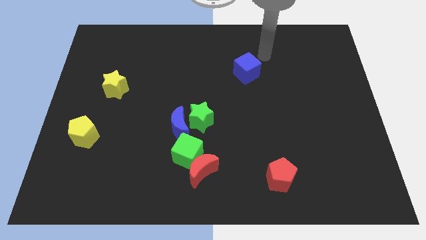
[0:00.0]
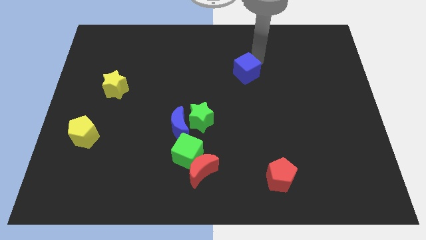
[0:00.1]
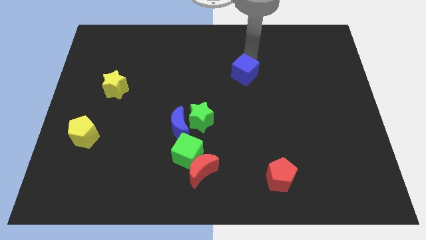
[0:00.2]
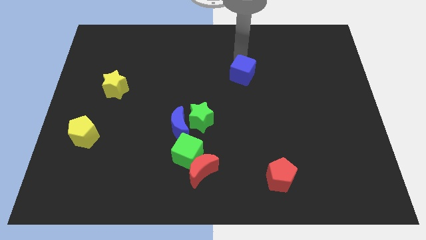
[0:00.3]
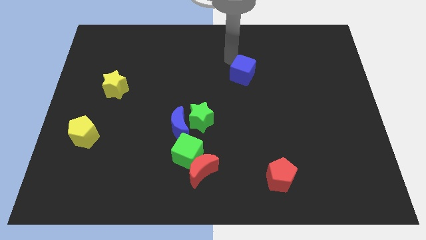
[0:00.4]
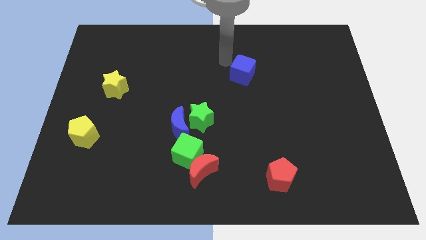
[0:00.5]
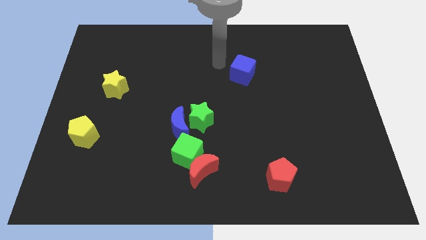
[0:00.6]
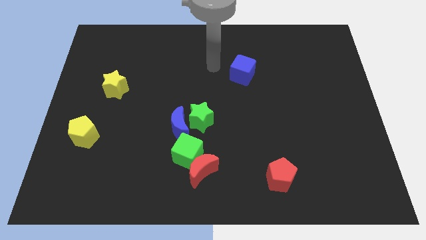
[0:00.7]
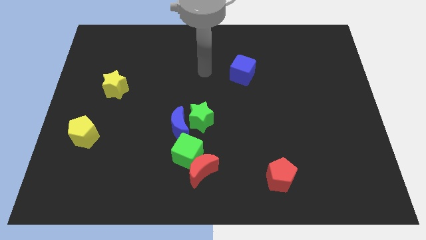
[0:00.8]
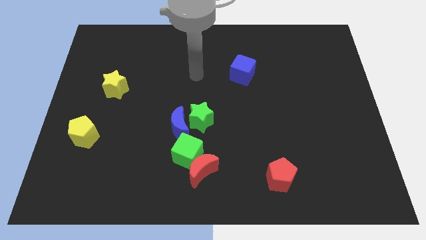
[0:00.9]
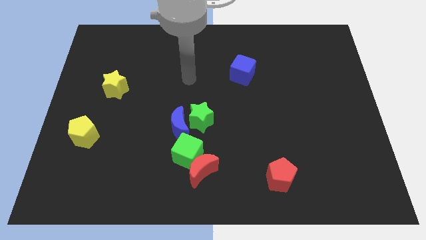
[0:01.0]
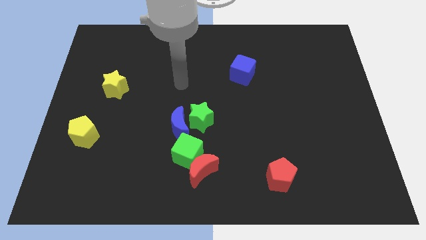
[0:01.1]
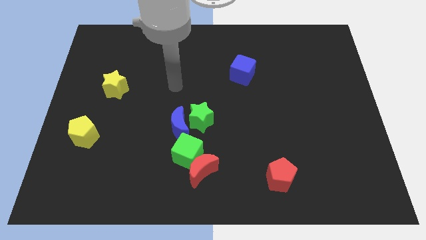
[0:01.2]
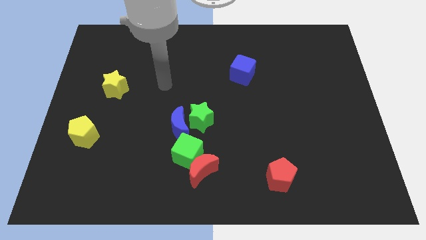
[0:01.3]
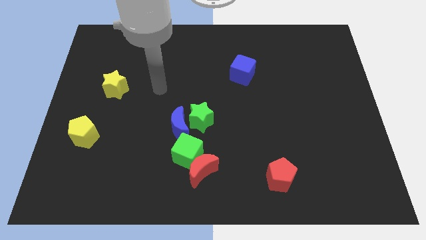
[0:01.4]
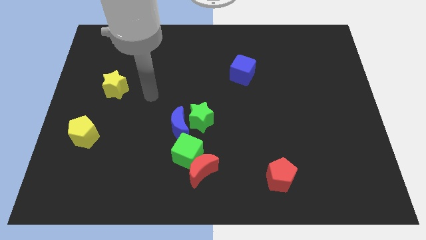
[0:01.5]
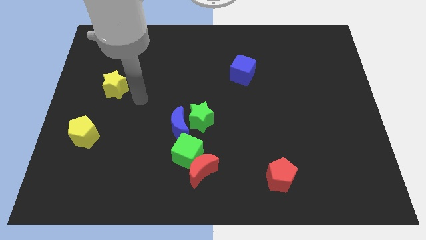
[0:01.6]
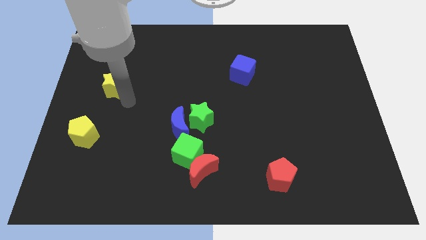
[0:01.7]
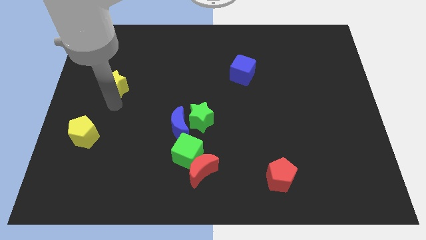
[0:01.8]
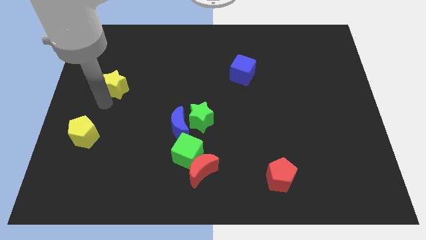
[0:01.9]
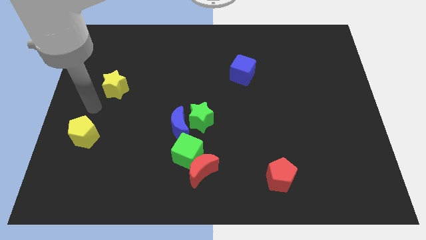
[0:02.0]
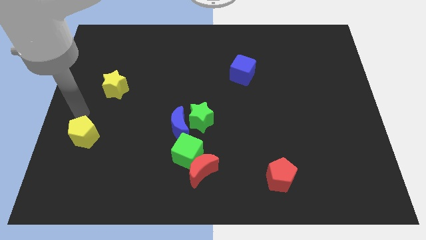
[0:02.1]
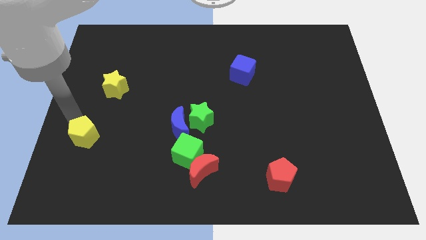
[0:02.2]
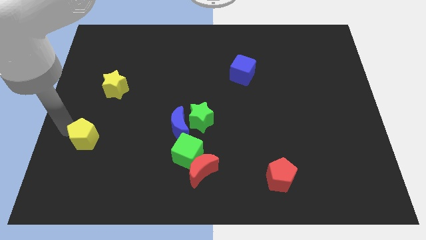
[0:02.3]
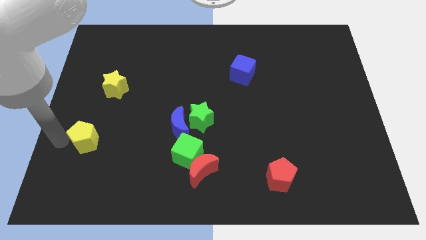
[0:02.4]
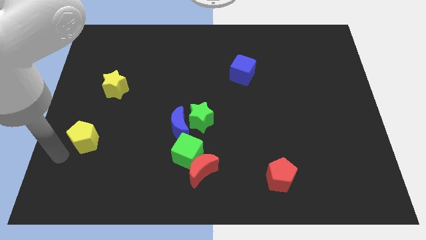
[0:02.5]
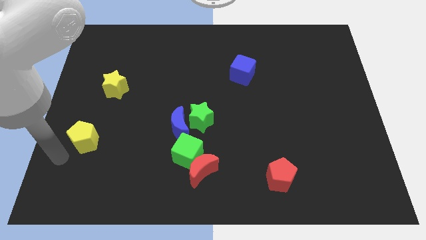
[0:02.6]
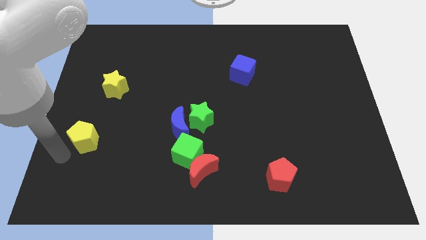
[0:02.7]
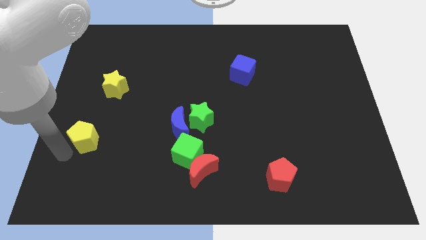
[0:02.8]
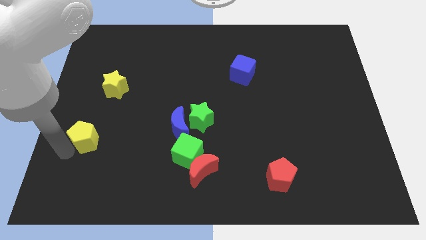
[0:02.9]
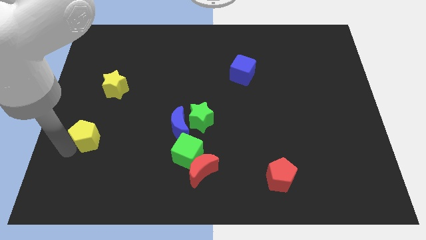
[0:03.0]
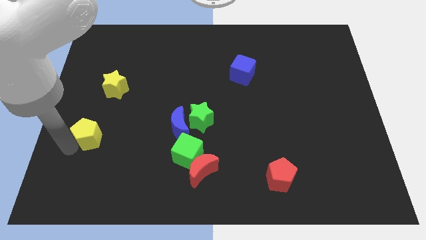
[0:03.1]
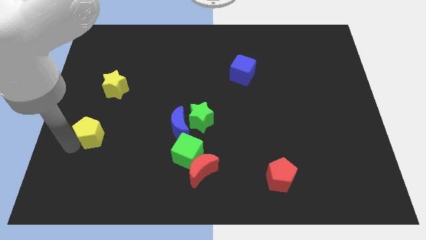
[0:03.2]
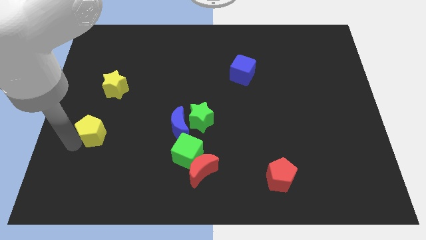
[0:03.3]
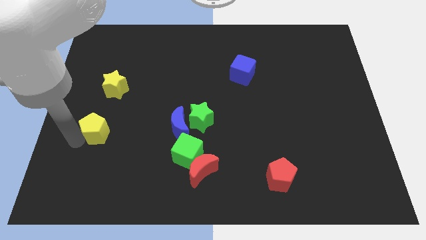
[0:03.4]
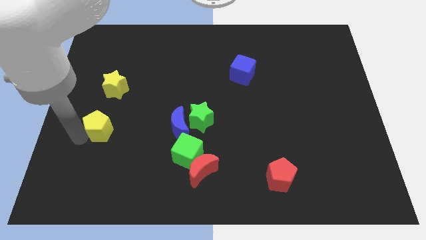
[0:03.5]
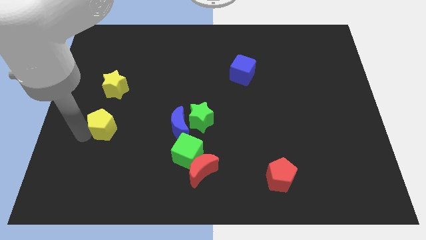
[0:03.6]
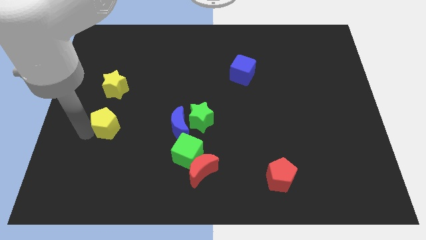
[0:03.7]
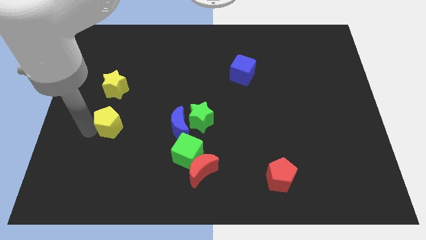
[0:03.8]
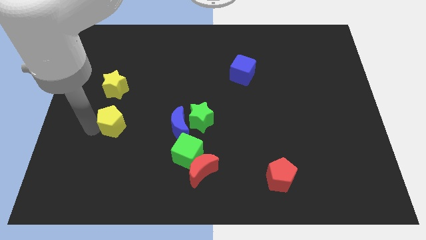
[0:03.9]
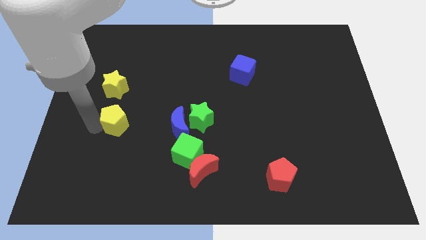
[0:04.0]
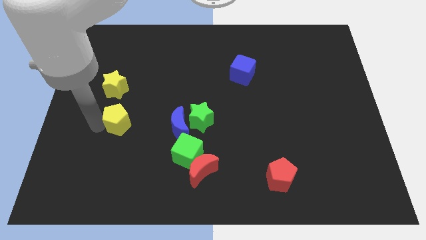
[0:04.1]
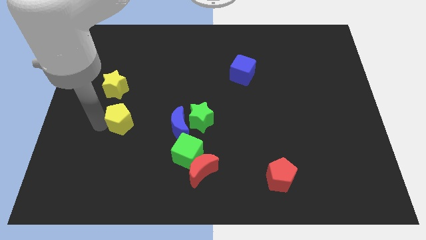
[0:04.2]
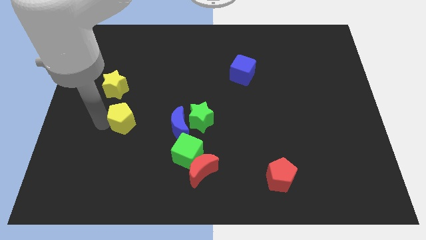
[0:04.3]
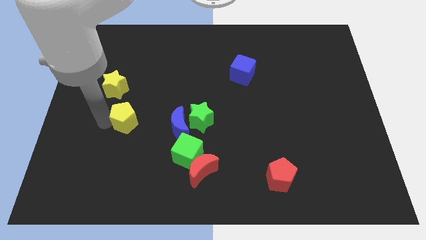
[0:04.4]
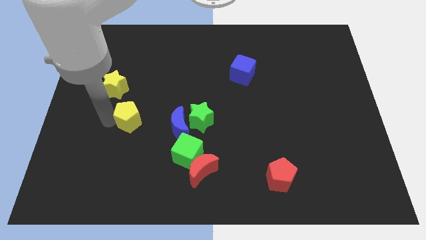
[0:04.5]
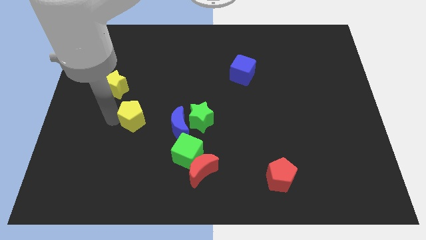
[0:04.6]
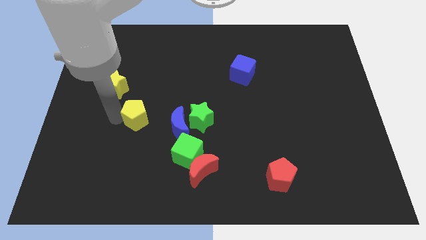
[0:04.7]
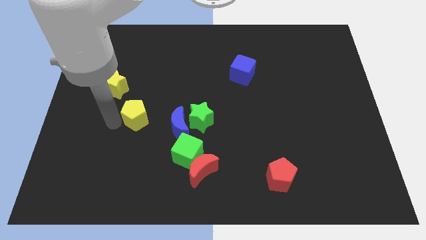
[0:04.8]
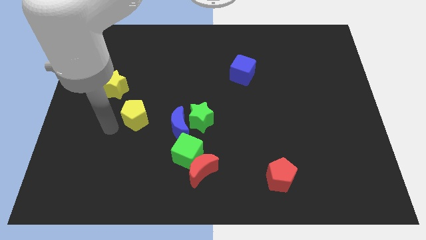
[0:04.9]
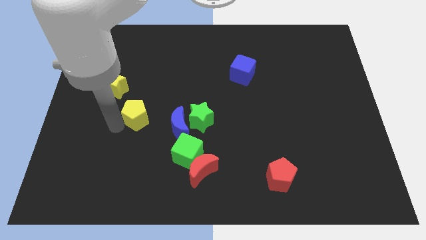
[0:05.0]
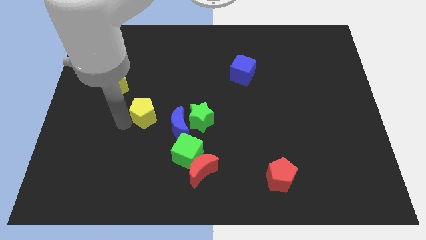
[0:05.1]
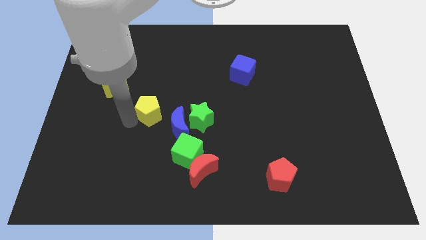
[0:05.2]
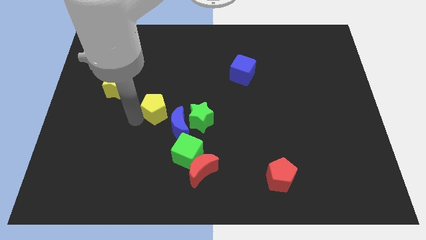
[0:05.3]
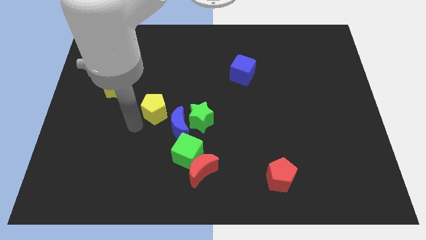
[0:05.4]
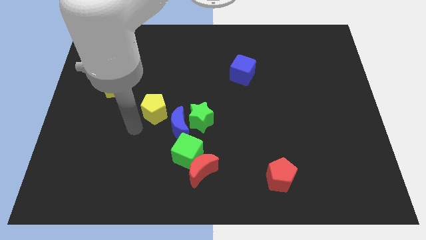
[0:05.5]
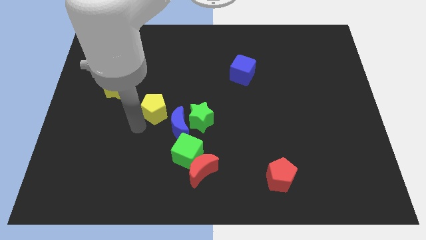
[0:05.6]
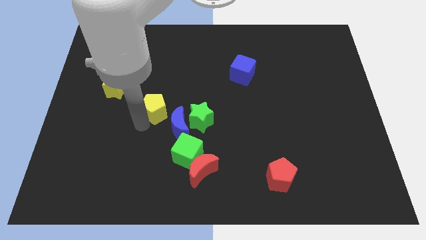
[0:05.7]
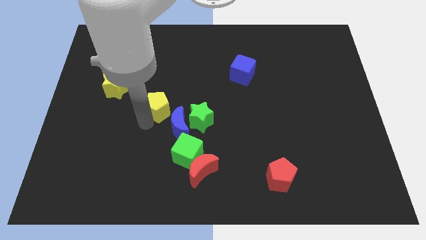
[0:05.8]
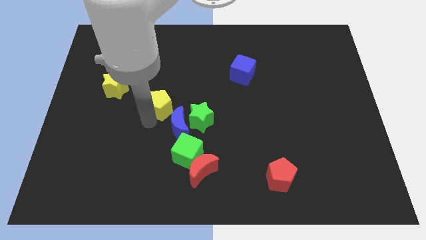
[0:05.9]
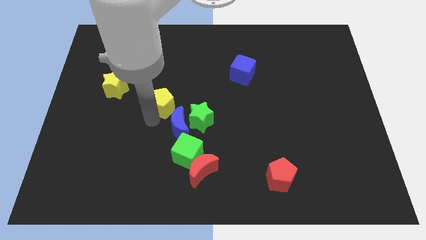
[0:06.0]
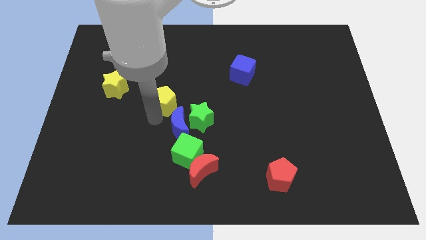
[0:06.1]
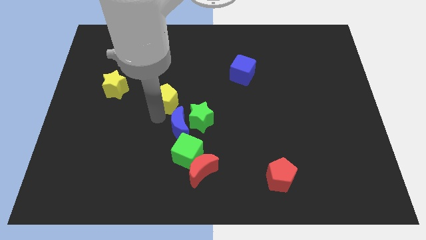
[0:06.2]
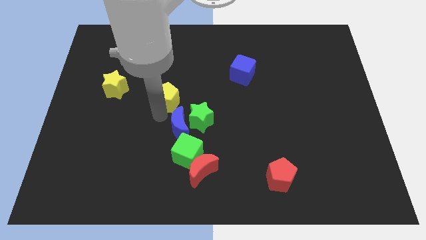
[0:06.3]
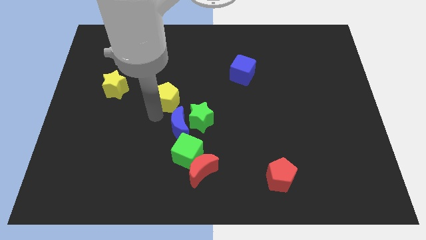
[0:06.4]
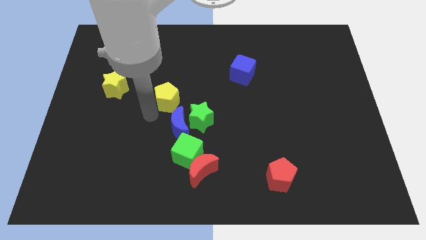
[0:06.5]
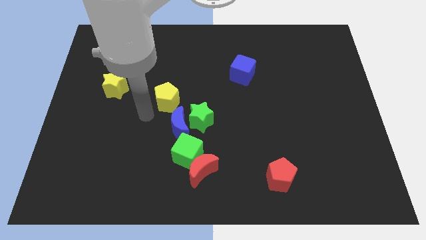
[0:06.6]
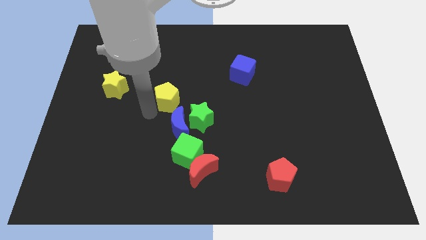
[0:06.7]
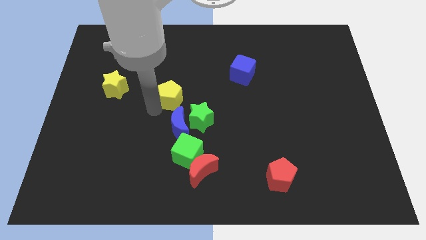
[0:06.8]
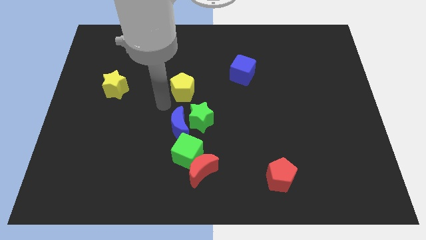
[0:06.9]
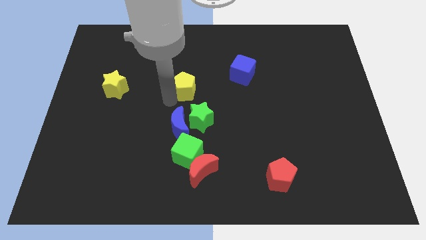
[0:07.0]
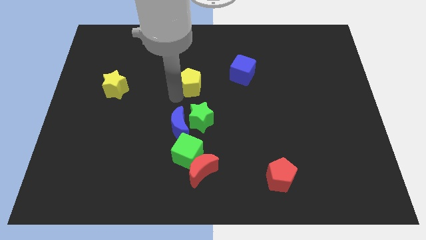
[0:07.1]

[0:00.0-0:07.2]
push the yellow pentagon to the left of the blue cube

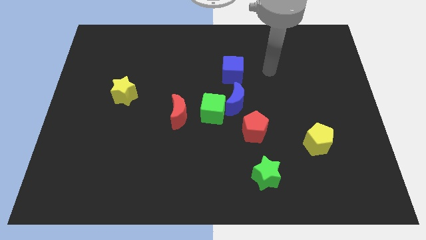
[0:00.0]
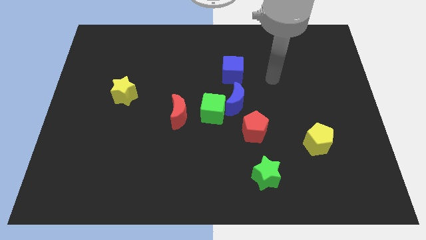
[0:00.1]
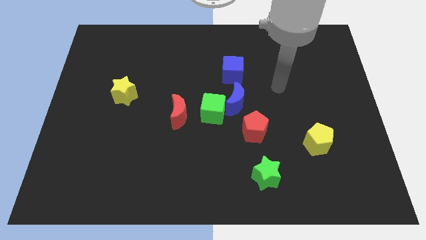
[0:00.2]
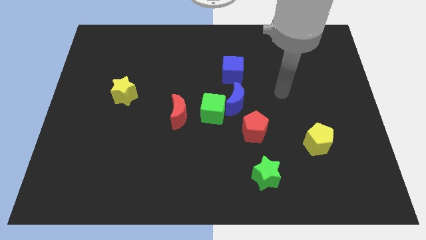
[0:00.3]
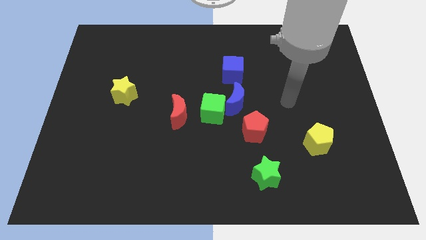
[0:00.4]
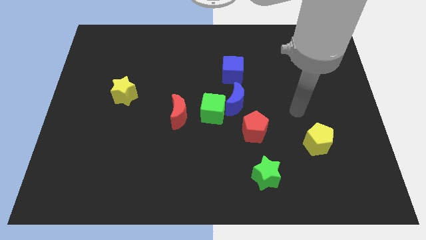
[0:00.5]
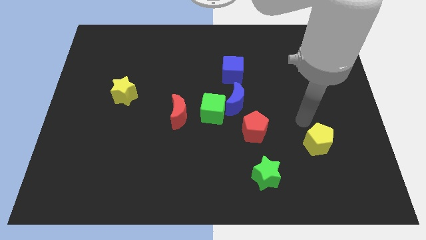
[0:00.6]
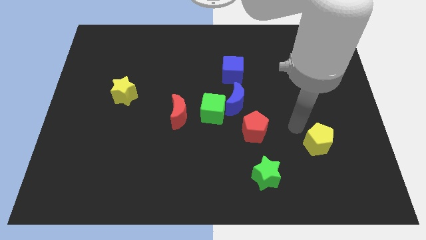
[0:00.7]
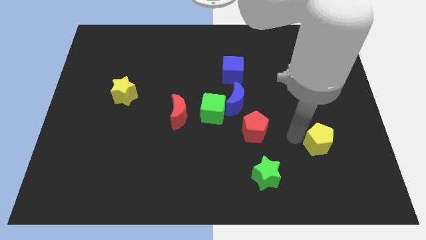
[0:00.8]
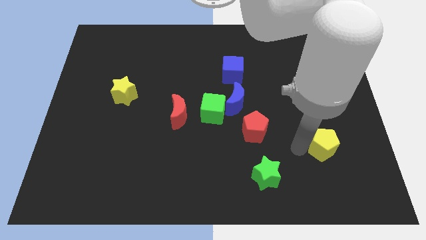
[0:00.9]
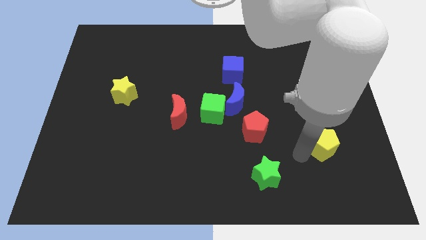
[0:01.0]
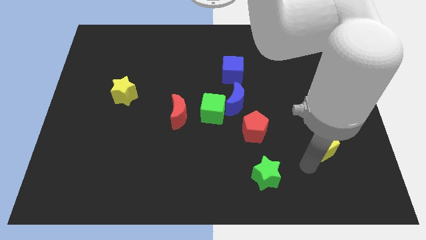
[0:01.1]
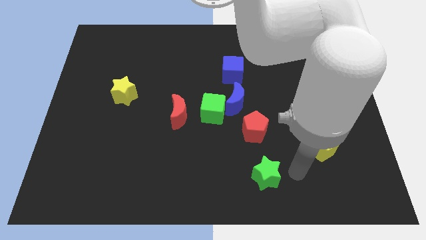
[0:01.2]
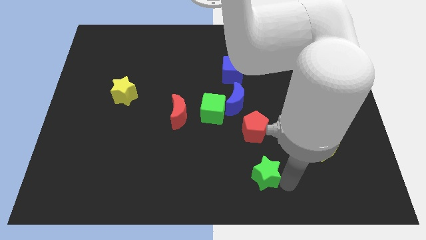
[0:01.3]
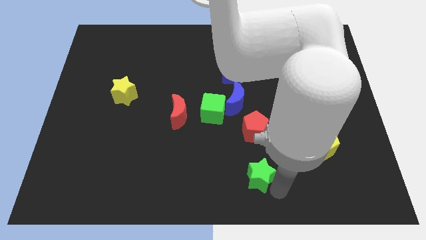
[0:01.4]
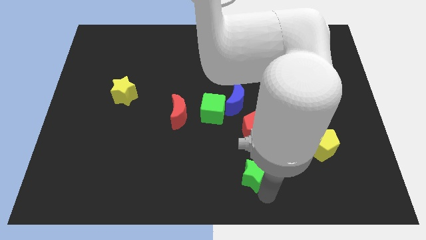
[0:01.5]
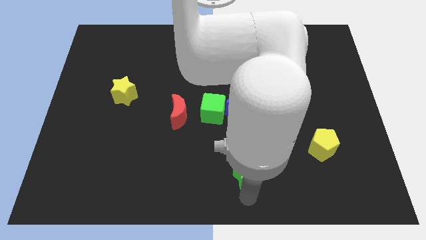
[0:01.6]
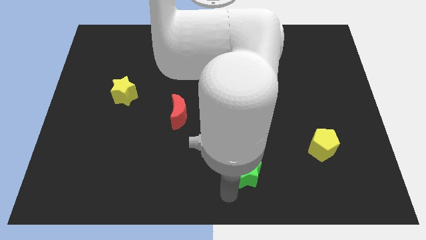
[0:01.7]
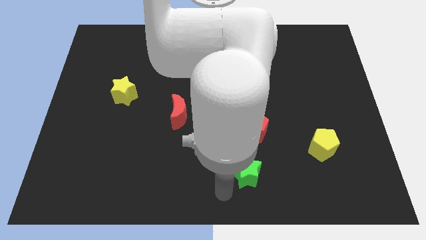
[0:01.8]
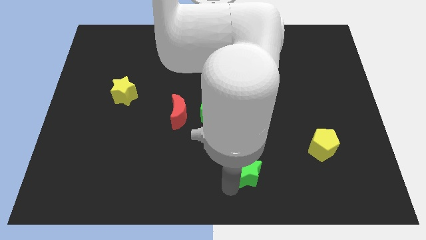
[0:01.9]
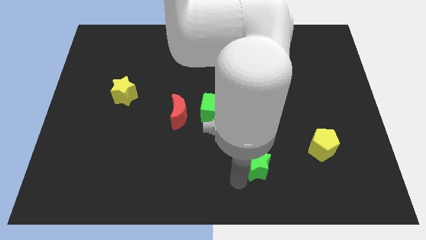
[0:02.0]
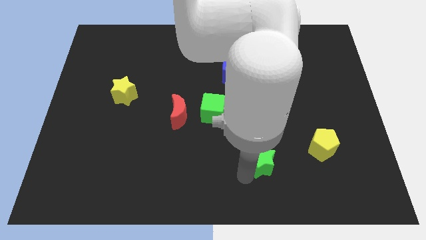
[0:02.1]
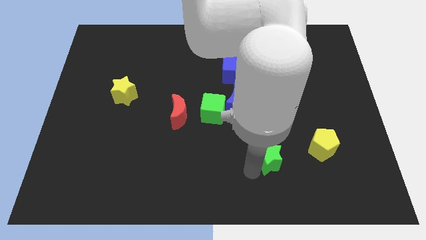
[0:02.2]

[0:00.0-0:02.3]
slide the green star diagonally down and to the right of the red pentagon
